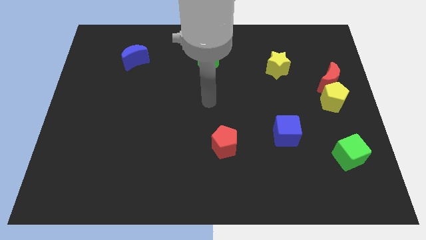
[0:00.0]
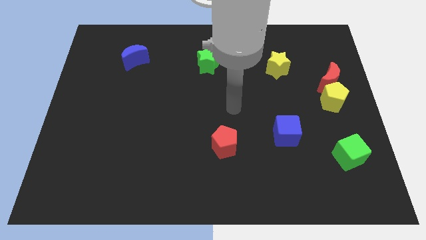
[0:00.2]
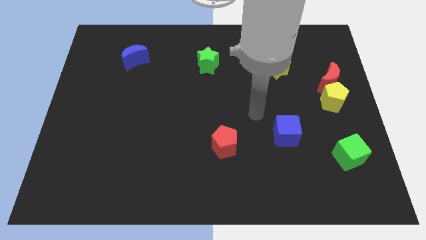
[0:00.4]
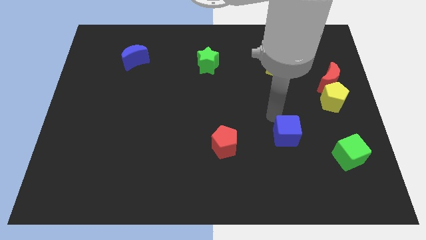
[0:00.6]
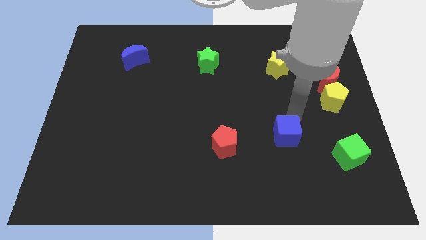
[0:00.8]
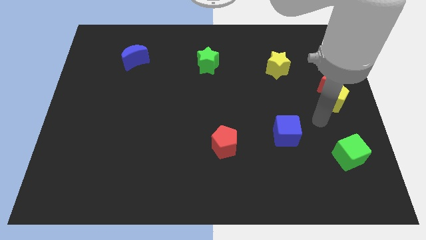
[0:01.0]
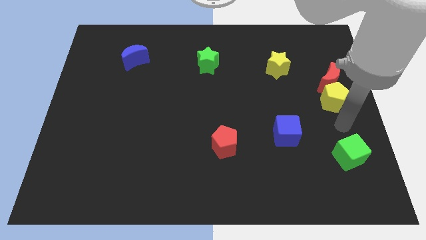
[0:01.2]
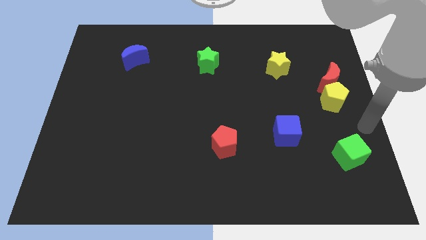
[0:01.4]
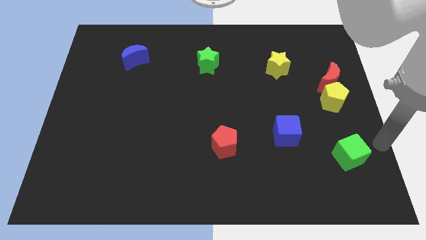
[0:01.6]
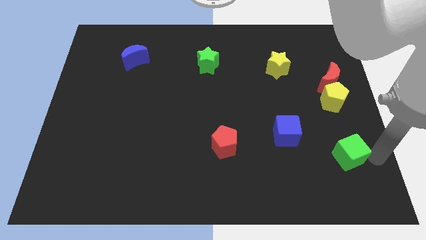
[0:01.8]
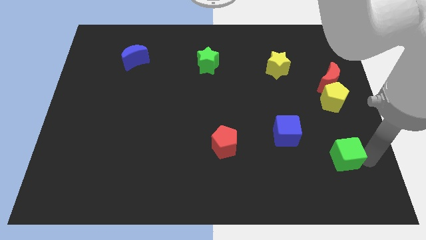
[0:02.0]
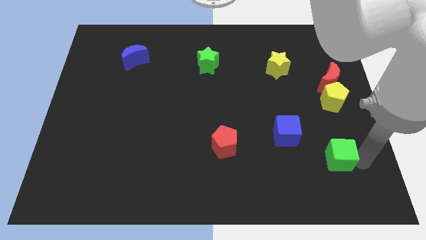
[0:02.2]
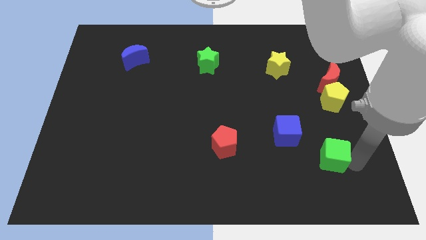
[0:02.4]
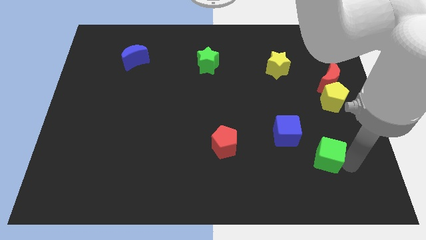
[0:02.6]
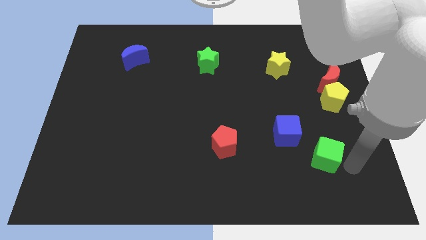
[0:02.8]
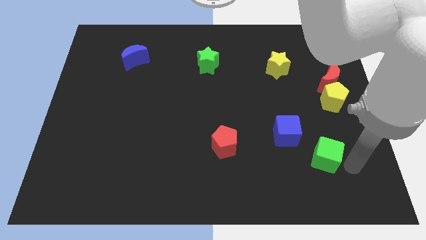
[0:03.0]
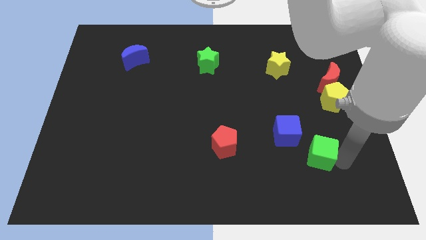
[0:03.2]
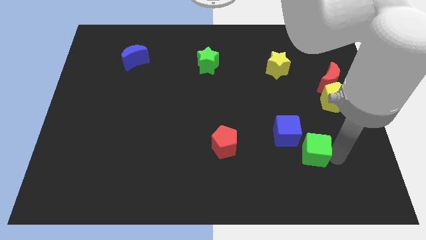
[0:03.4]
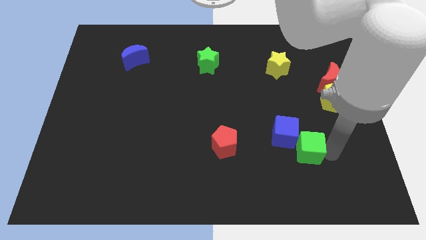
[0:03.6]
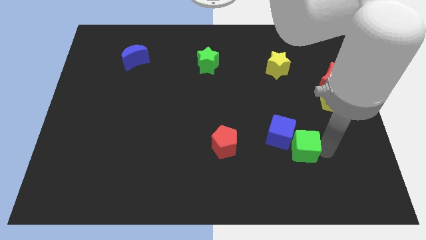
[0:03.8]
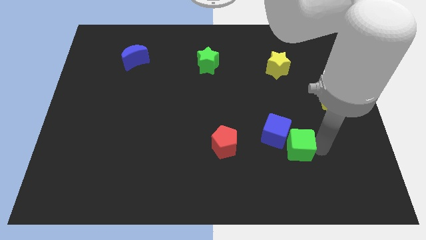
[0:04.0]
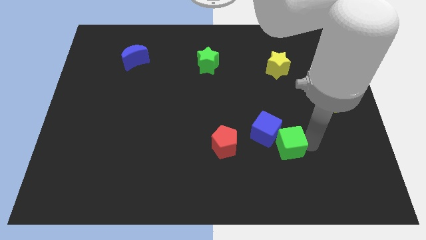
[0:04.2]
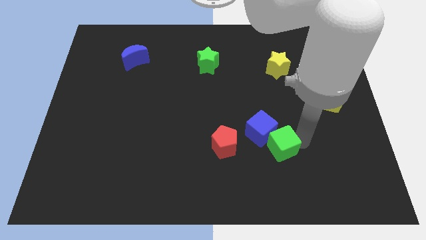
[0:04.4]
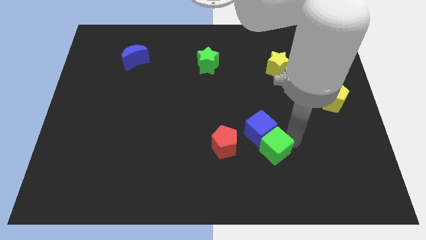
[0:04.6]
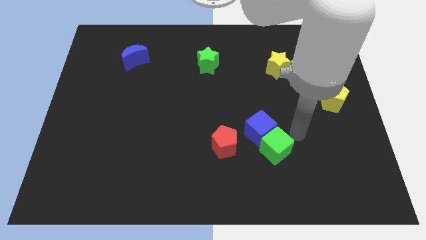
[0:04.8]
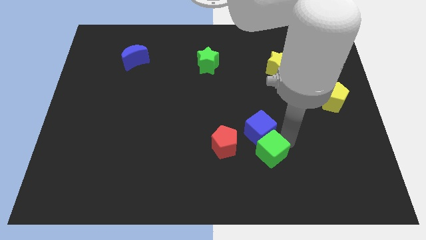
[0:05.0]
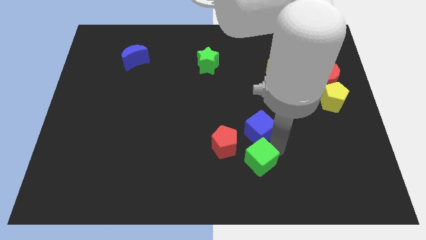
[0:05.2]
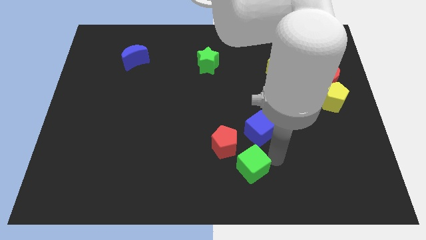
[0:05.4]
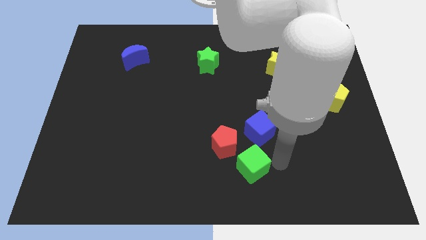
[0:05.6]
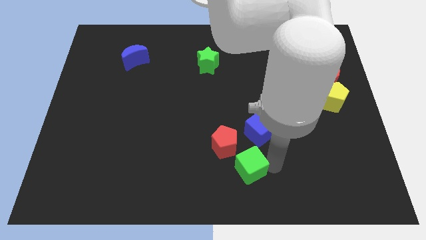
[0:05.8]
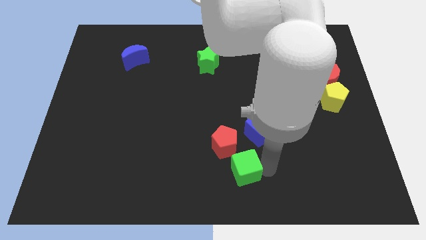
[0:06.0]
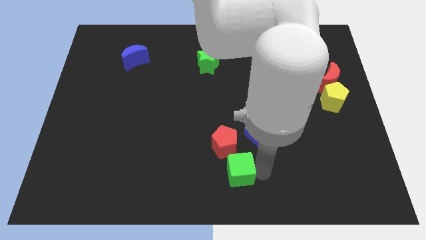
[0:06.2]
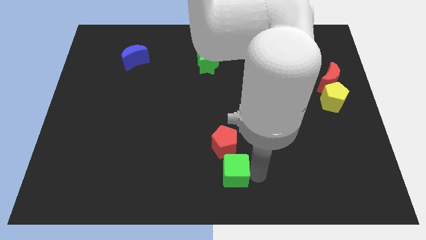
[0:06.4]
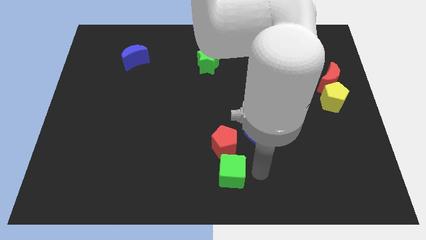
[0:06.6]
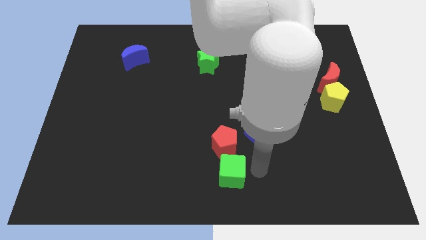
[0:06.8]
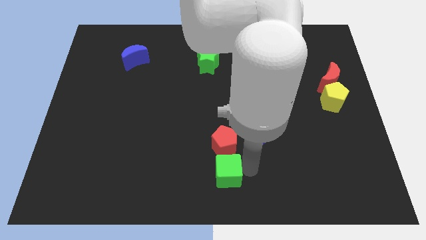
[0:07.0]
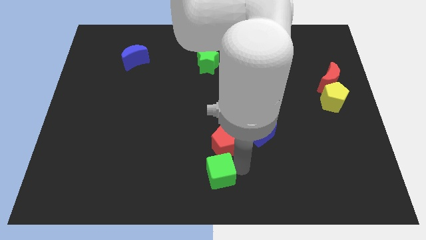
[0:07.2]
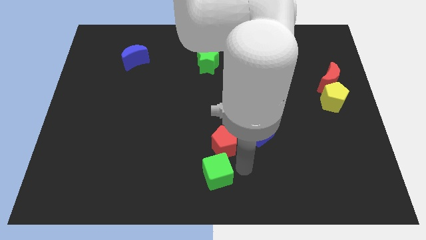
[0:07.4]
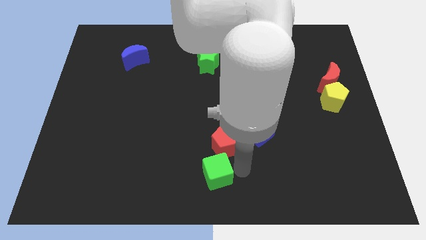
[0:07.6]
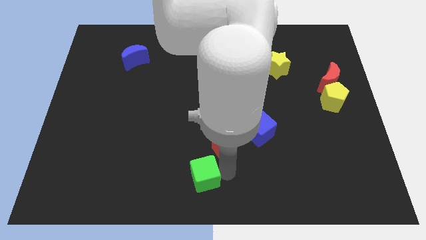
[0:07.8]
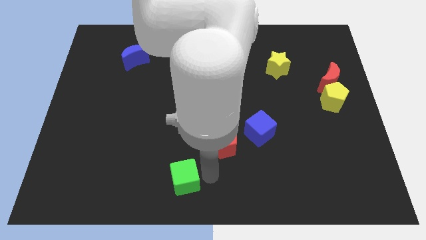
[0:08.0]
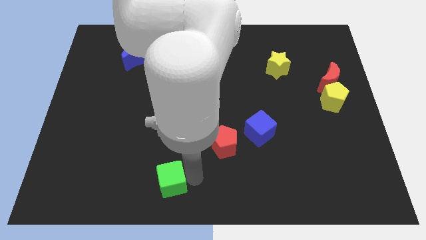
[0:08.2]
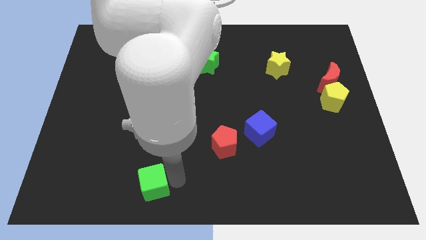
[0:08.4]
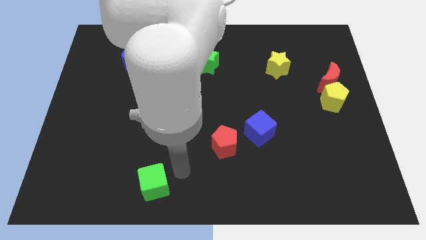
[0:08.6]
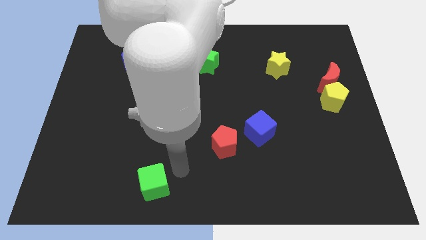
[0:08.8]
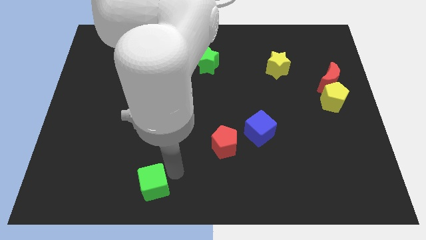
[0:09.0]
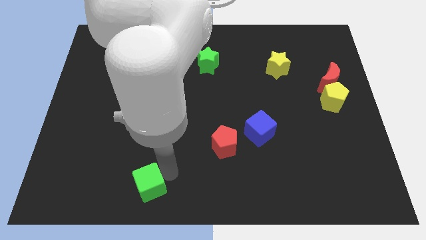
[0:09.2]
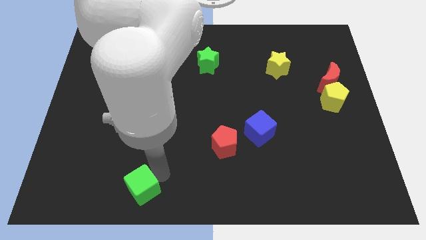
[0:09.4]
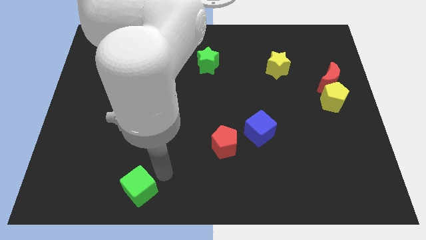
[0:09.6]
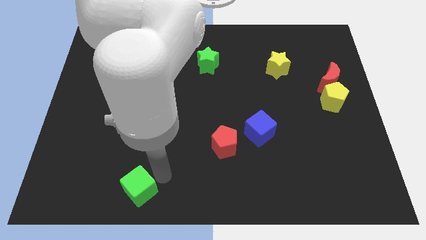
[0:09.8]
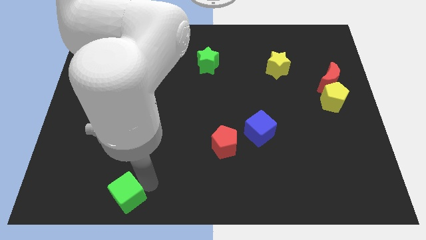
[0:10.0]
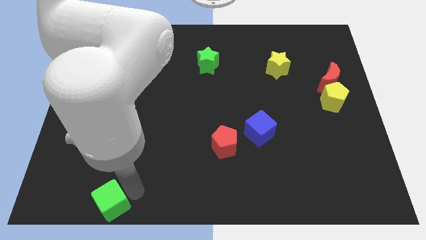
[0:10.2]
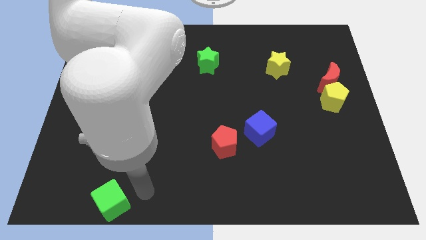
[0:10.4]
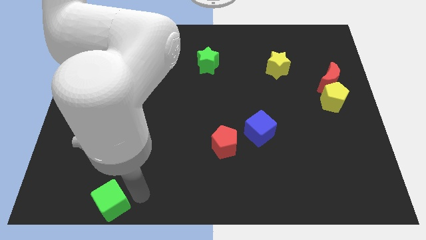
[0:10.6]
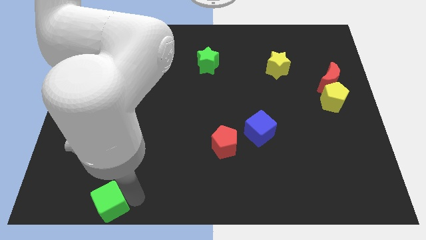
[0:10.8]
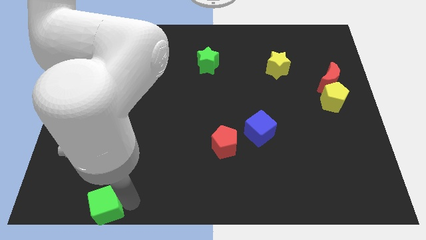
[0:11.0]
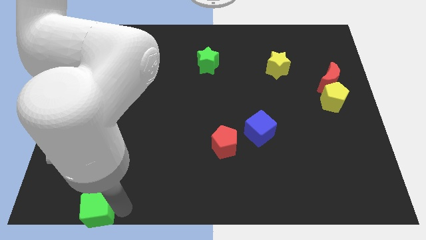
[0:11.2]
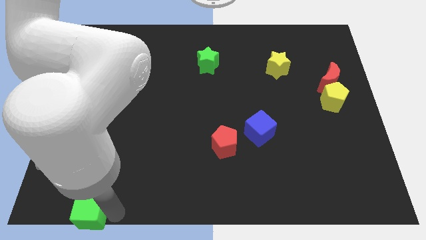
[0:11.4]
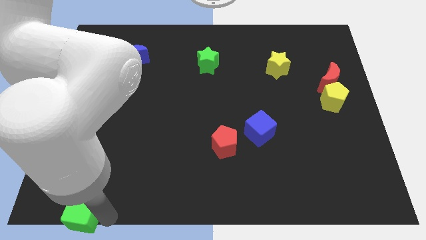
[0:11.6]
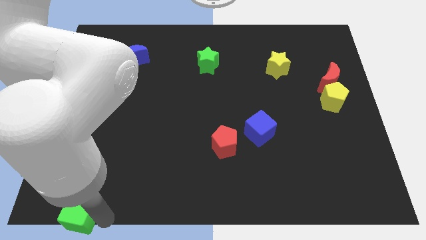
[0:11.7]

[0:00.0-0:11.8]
put the green cube to the bottom left of the board
